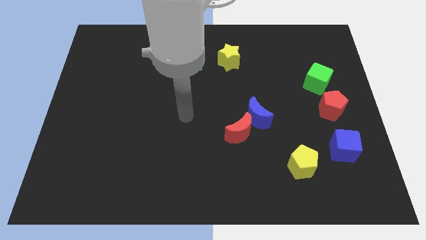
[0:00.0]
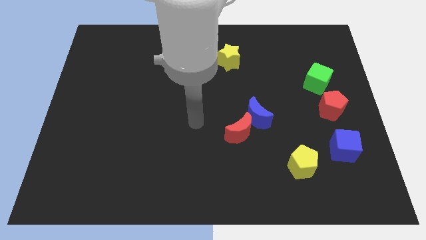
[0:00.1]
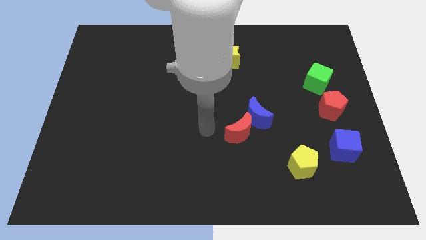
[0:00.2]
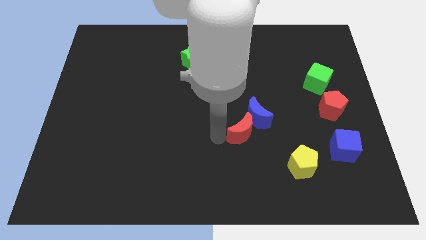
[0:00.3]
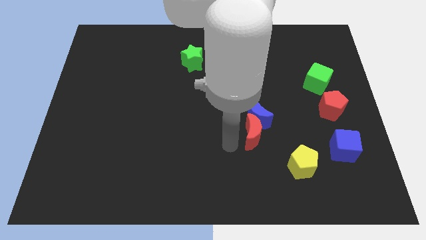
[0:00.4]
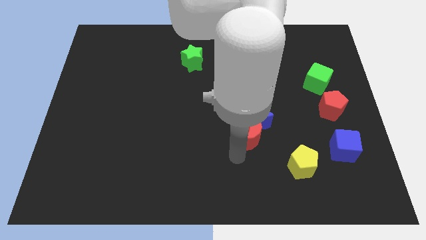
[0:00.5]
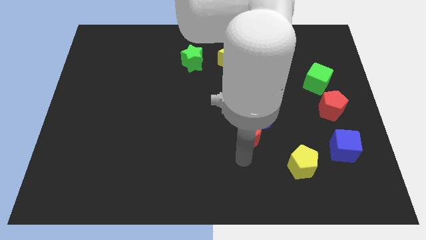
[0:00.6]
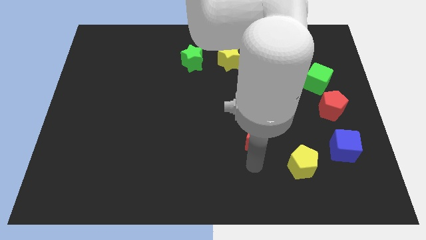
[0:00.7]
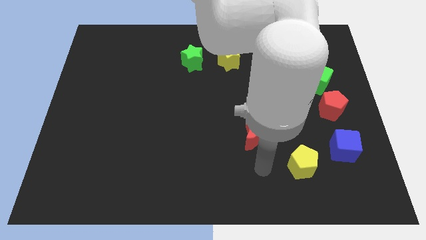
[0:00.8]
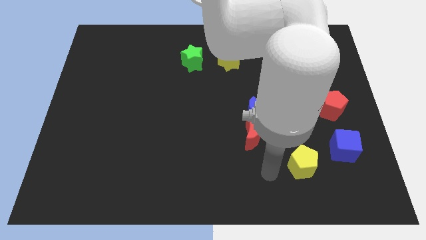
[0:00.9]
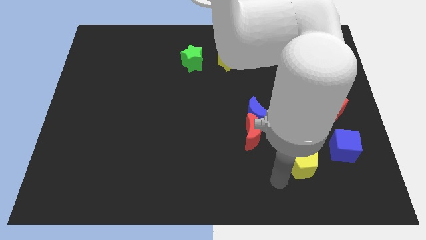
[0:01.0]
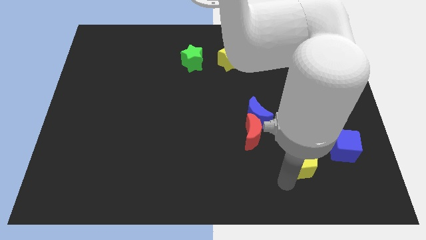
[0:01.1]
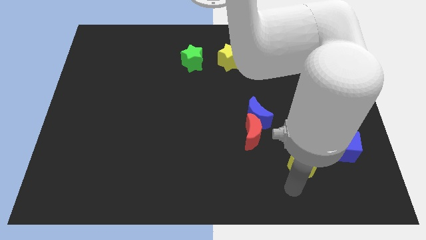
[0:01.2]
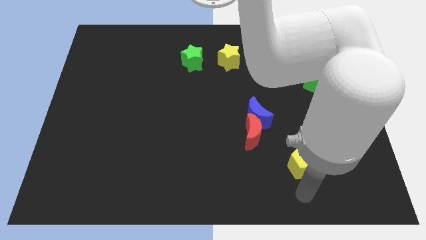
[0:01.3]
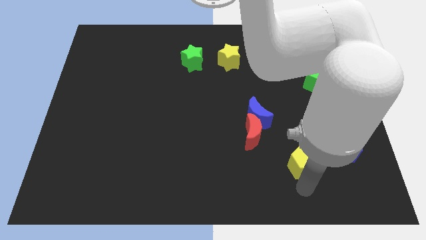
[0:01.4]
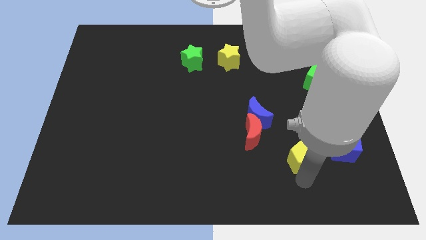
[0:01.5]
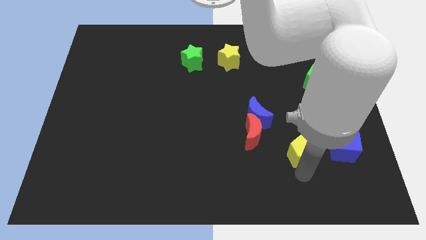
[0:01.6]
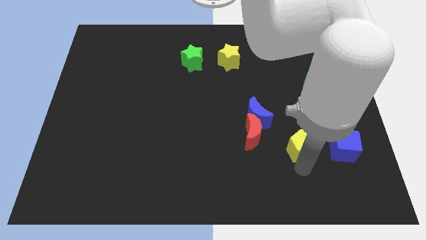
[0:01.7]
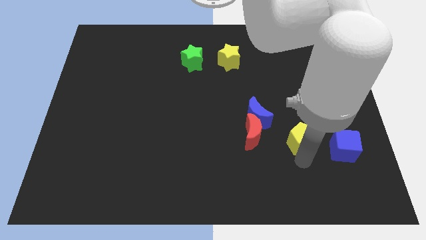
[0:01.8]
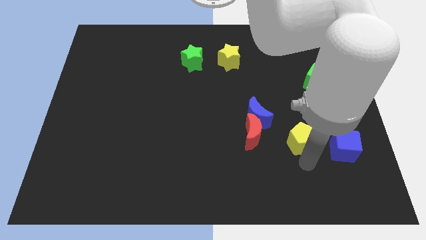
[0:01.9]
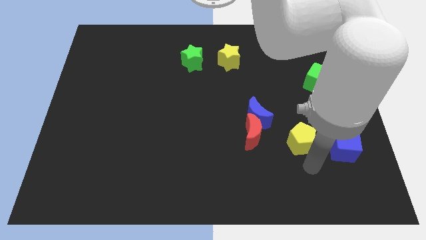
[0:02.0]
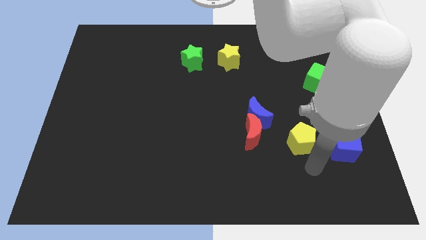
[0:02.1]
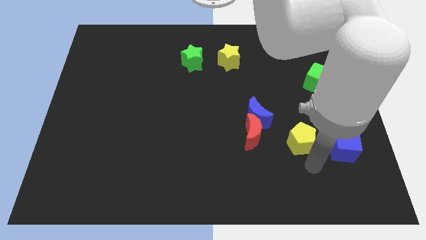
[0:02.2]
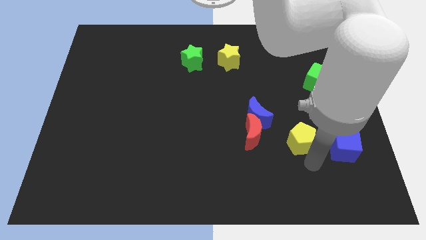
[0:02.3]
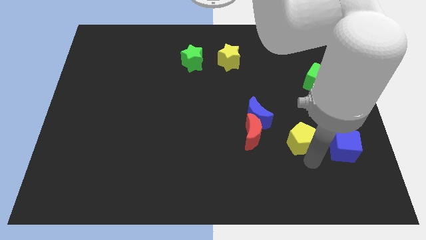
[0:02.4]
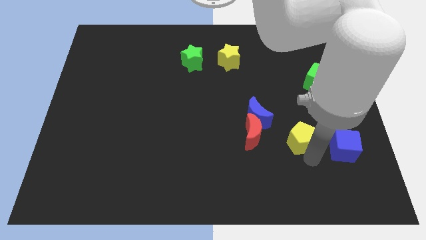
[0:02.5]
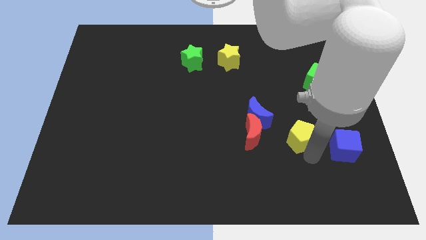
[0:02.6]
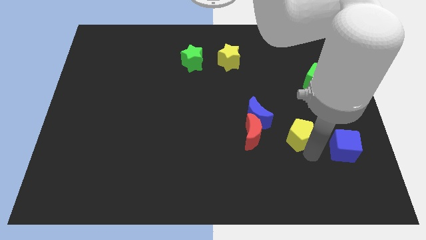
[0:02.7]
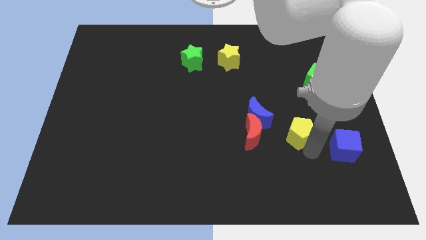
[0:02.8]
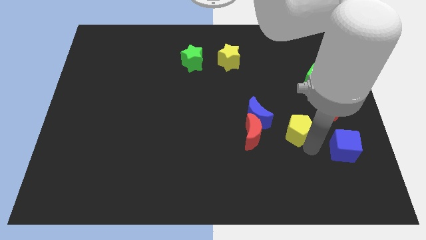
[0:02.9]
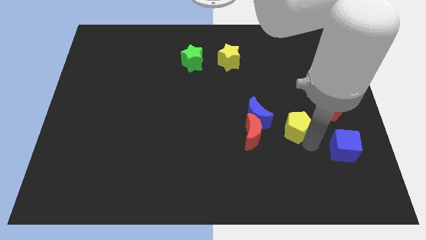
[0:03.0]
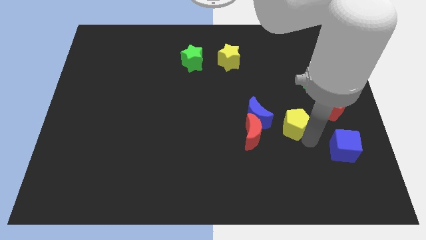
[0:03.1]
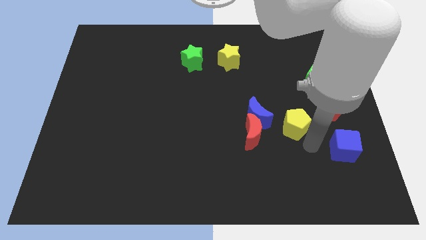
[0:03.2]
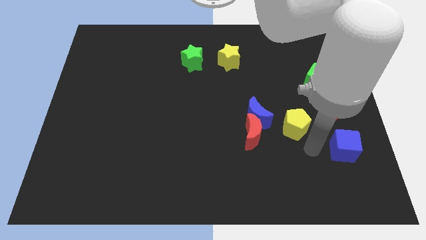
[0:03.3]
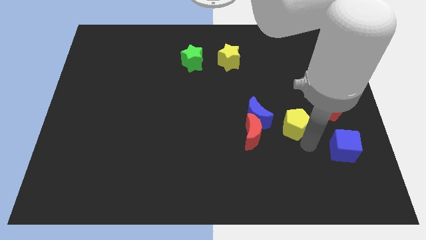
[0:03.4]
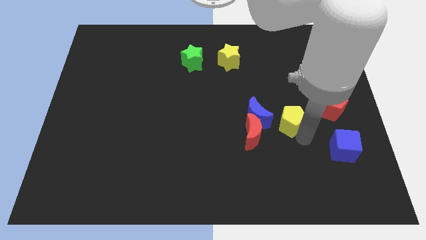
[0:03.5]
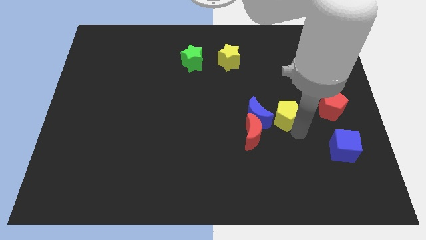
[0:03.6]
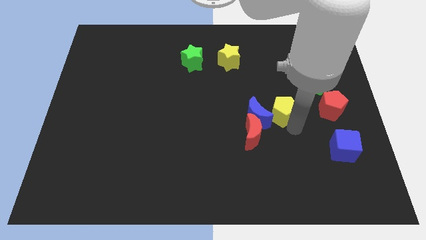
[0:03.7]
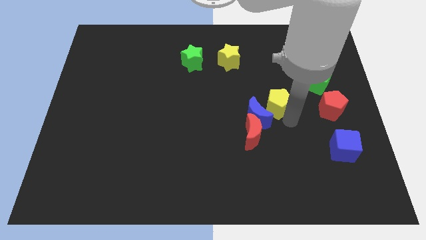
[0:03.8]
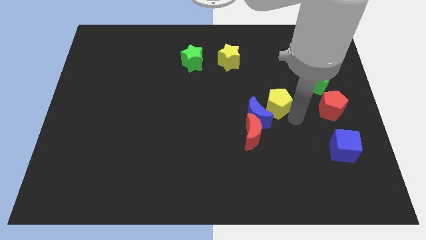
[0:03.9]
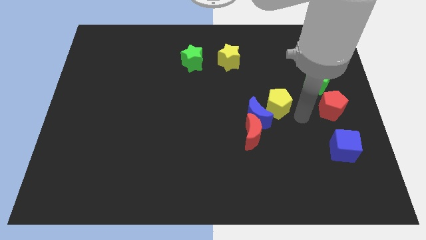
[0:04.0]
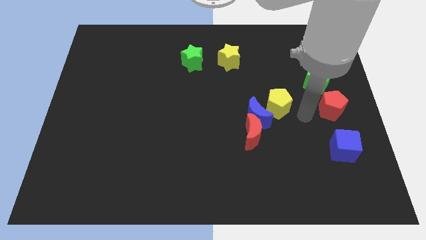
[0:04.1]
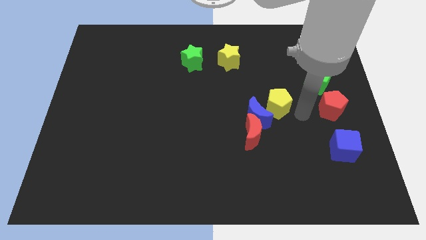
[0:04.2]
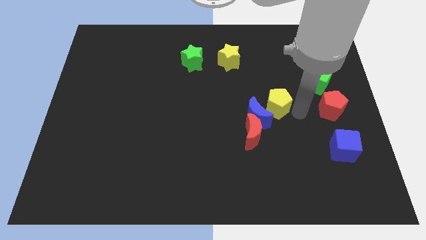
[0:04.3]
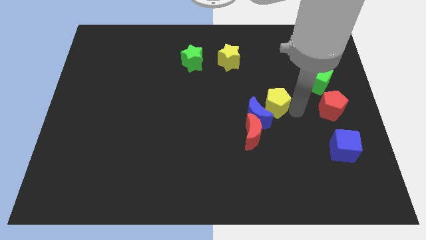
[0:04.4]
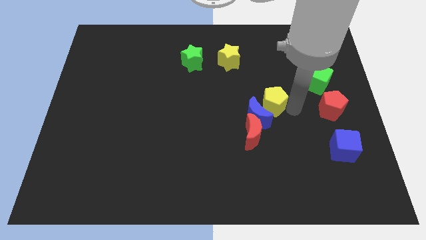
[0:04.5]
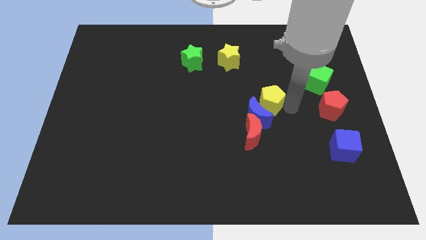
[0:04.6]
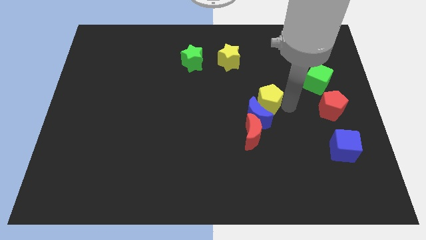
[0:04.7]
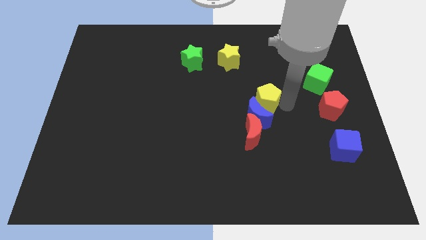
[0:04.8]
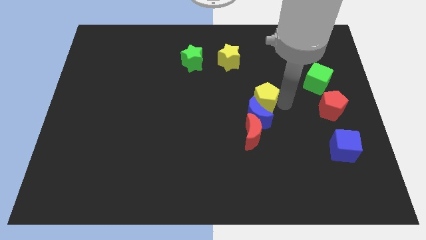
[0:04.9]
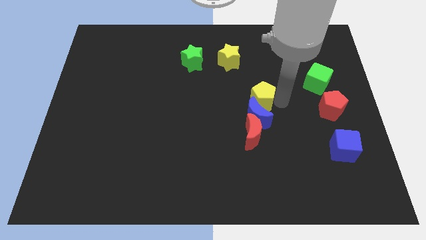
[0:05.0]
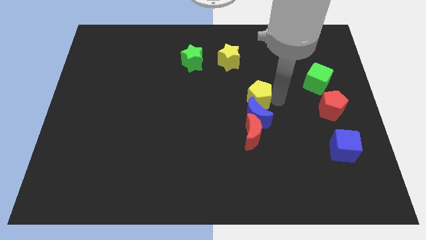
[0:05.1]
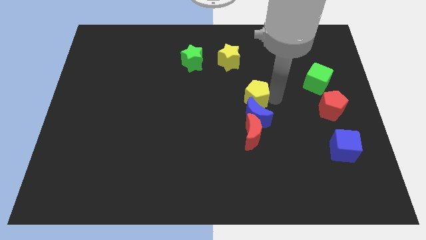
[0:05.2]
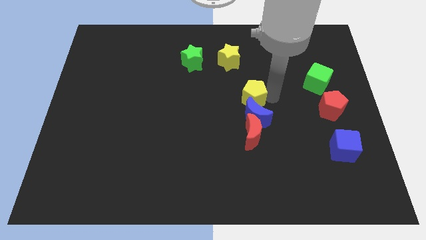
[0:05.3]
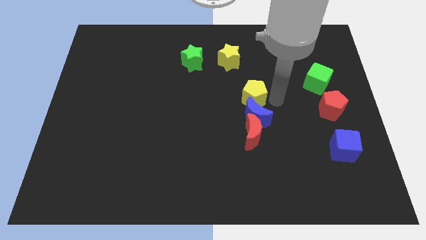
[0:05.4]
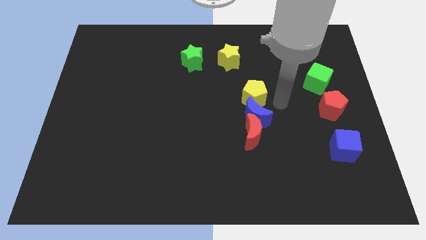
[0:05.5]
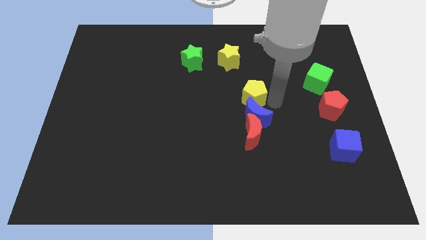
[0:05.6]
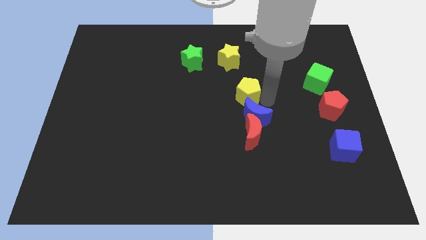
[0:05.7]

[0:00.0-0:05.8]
put the yellow pentagon below the yellow star

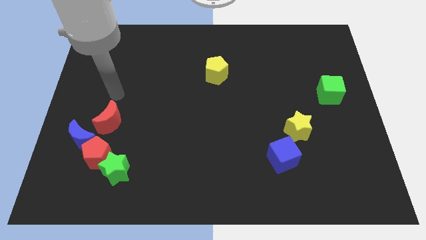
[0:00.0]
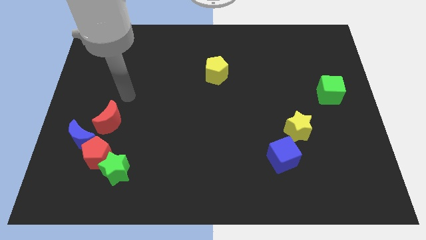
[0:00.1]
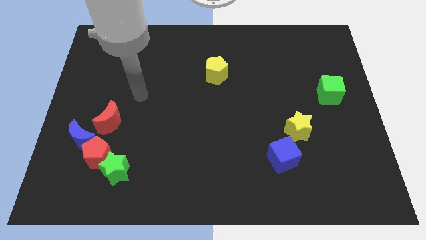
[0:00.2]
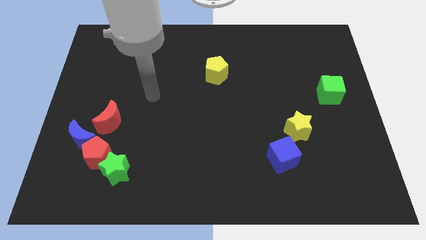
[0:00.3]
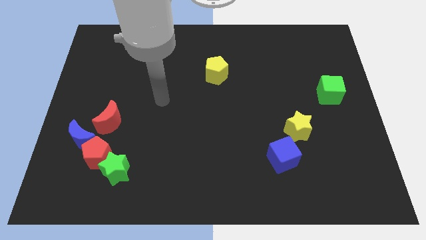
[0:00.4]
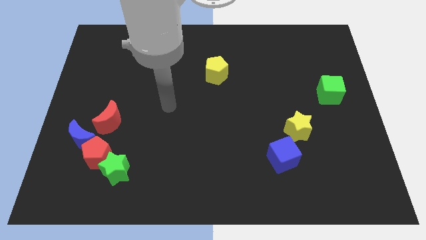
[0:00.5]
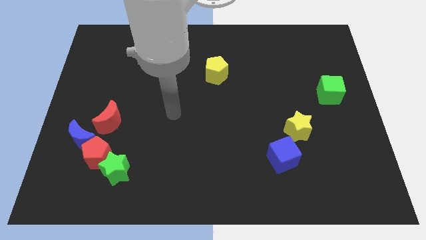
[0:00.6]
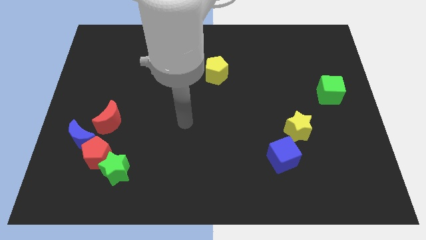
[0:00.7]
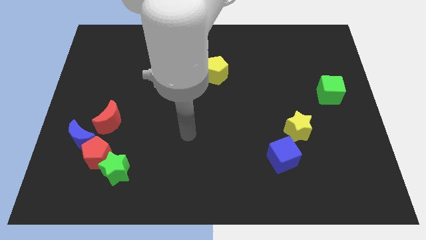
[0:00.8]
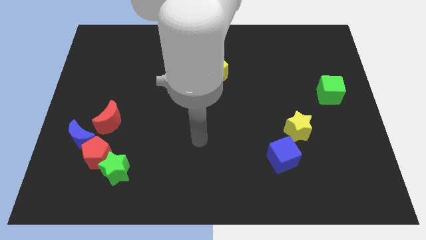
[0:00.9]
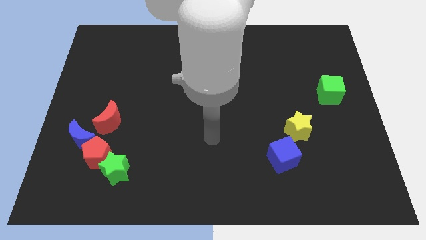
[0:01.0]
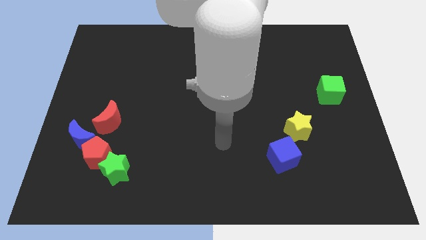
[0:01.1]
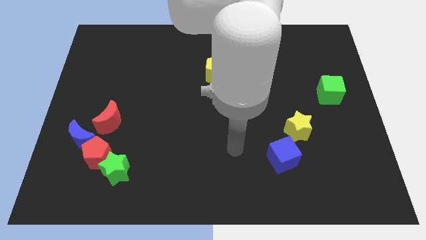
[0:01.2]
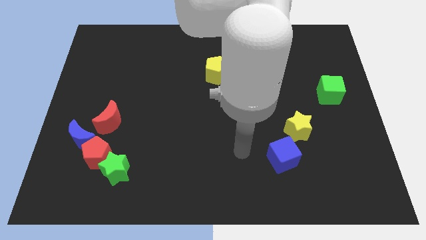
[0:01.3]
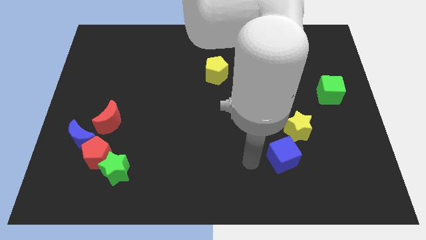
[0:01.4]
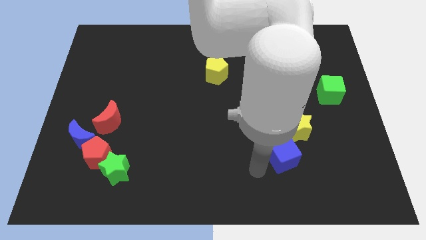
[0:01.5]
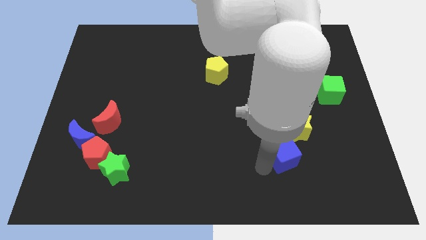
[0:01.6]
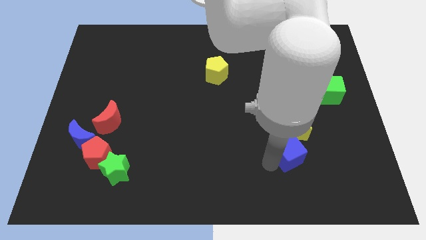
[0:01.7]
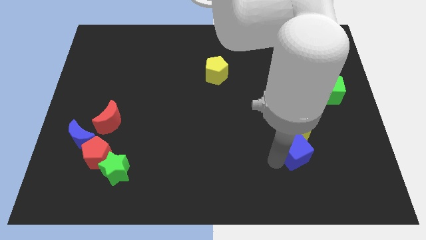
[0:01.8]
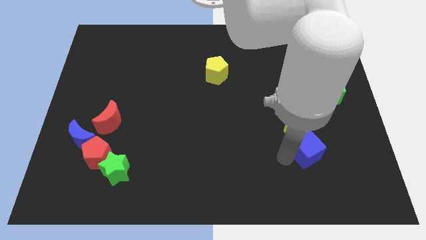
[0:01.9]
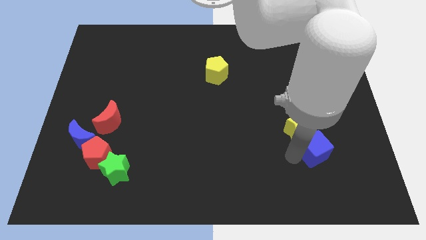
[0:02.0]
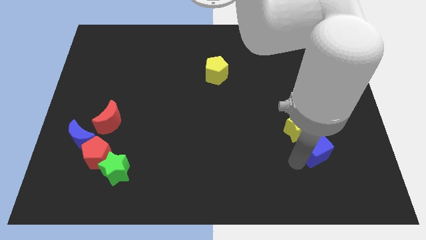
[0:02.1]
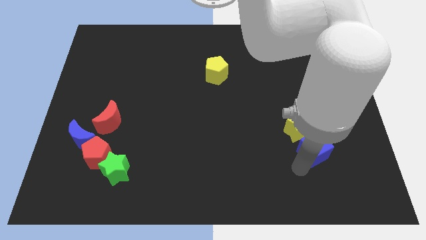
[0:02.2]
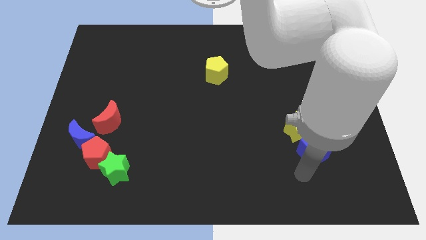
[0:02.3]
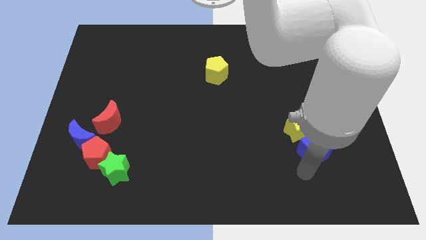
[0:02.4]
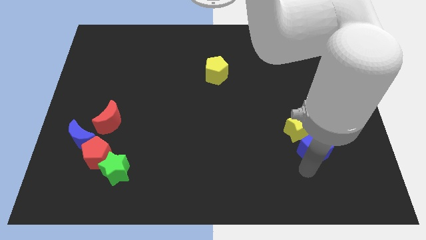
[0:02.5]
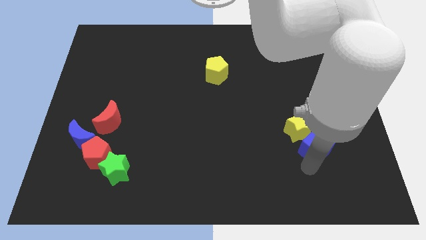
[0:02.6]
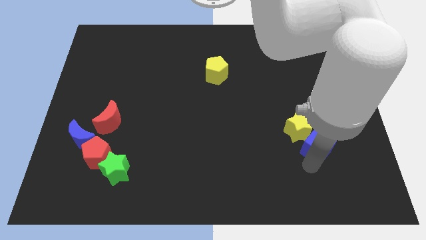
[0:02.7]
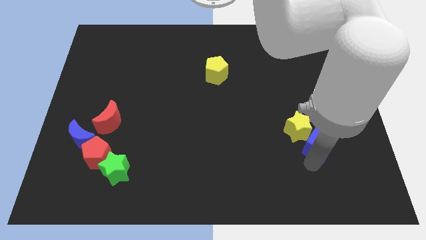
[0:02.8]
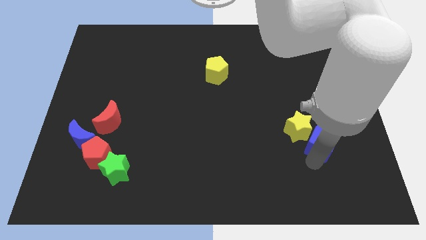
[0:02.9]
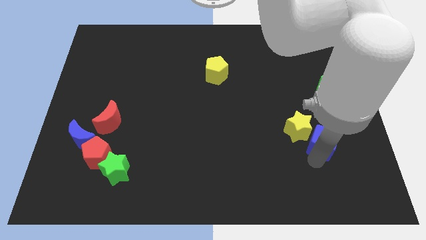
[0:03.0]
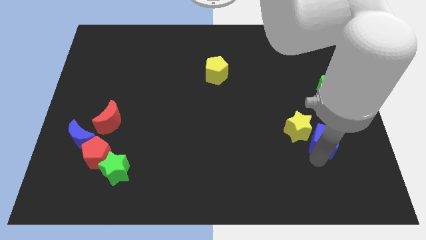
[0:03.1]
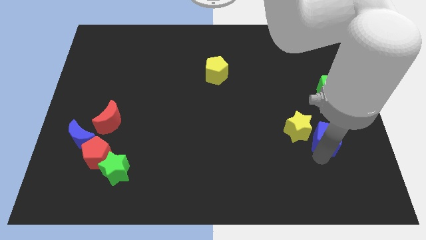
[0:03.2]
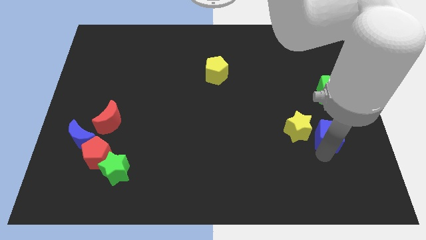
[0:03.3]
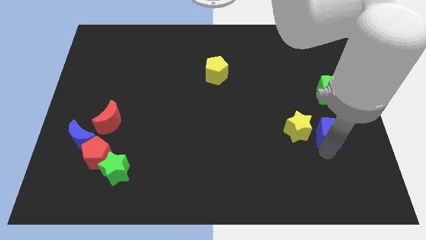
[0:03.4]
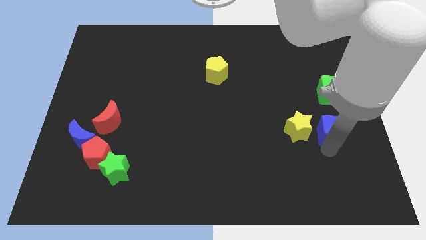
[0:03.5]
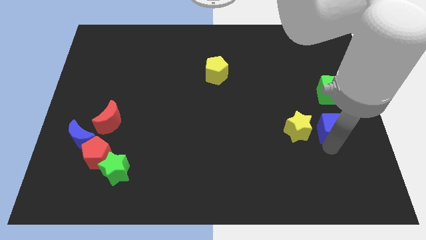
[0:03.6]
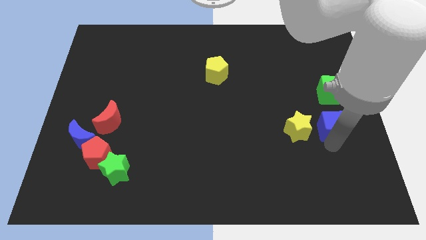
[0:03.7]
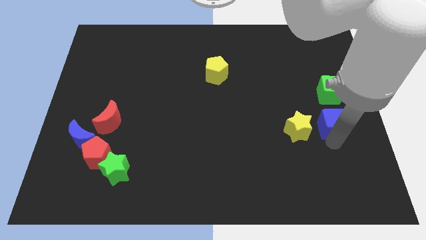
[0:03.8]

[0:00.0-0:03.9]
push the blue cube to the top right side of the yellow star
